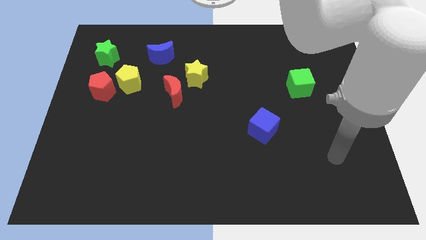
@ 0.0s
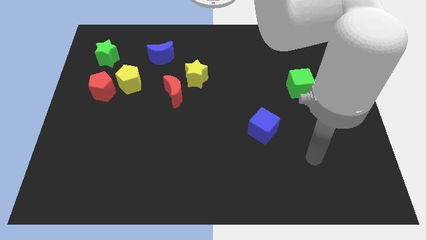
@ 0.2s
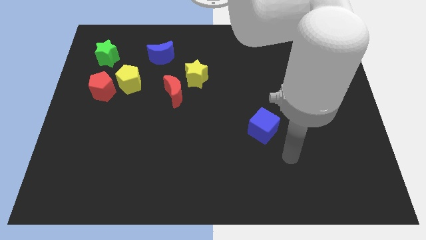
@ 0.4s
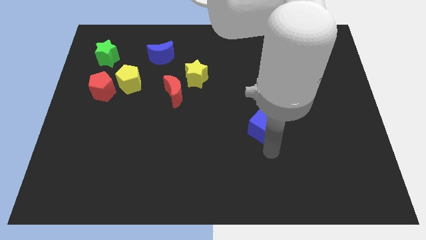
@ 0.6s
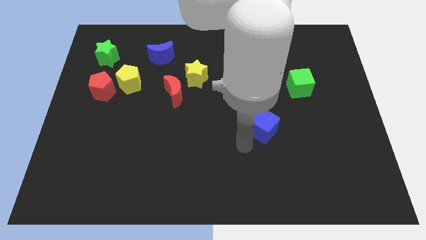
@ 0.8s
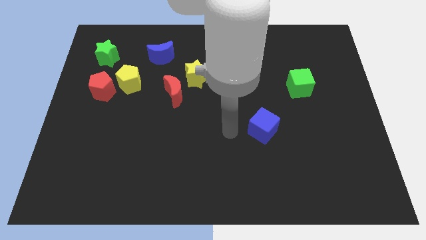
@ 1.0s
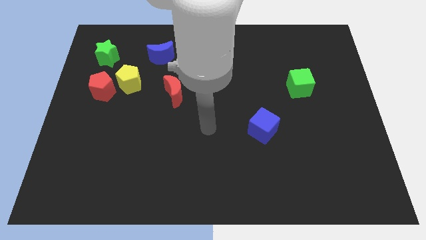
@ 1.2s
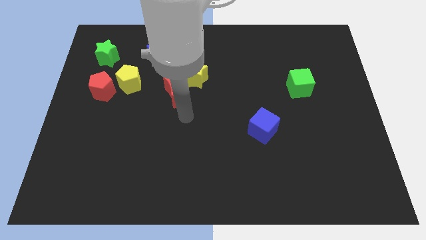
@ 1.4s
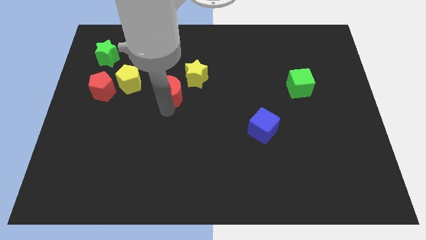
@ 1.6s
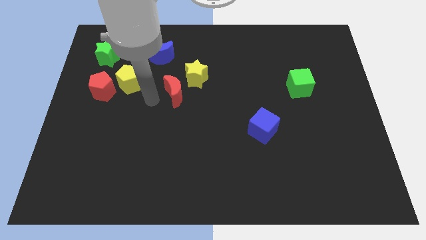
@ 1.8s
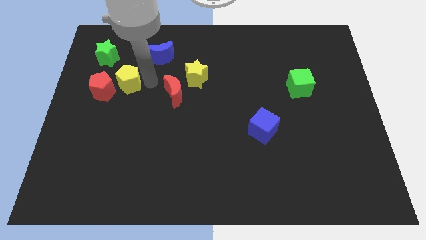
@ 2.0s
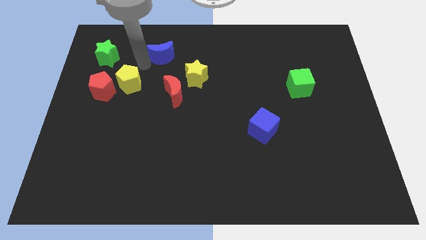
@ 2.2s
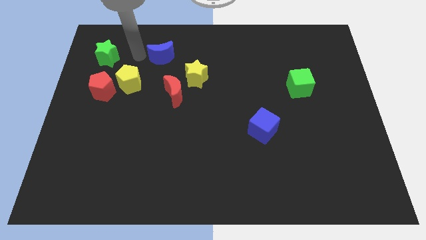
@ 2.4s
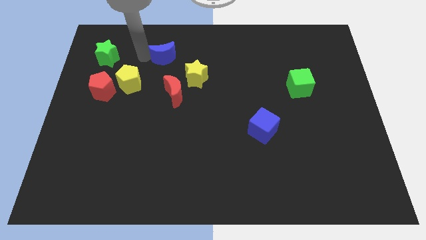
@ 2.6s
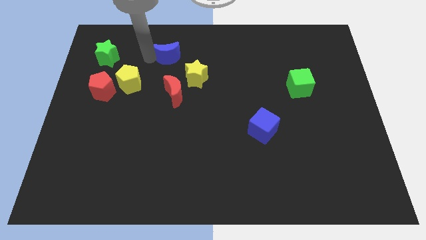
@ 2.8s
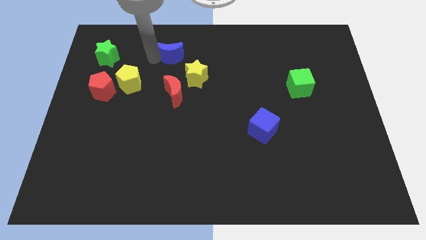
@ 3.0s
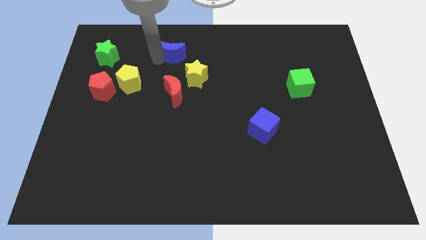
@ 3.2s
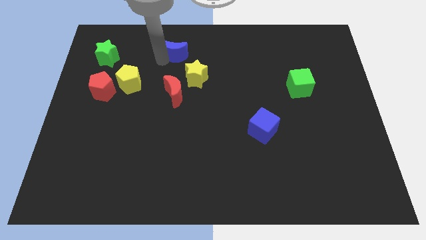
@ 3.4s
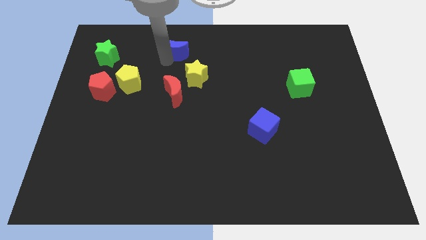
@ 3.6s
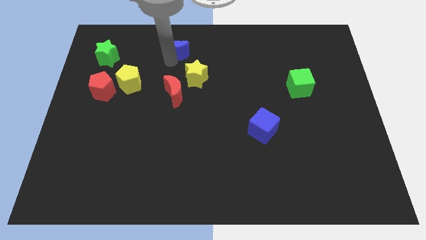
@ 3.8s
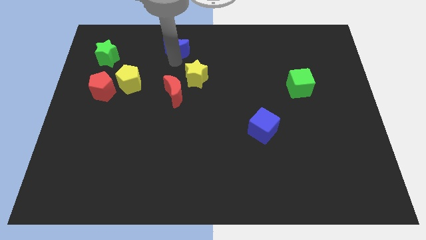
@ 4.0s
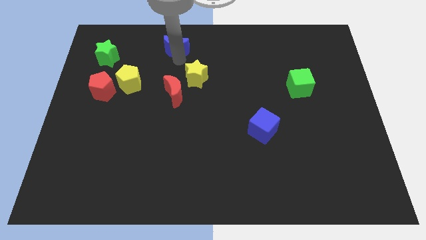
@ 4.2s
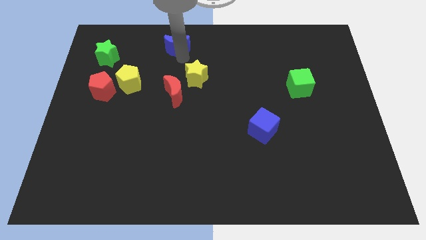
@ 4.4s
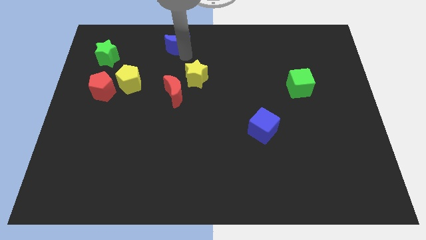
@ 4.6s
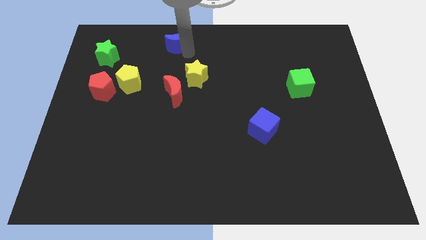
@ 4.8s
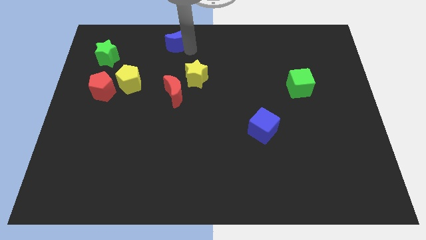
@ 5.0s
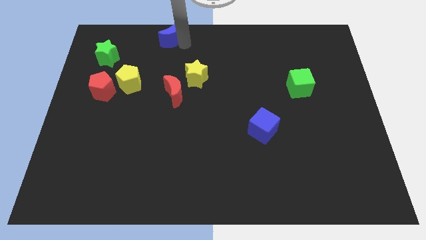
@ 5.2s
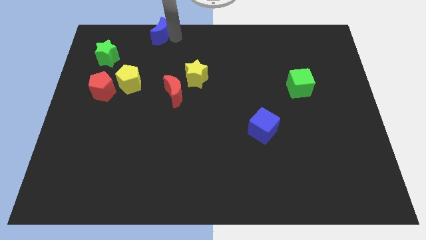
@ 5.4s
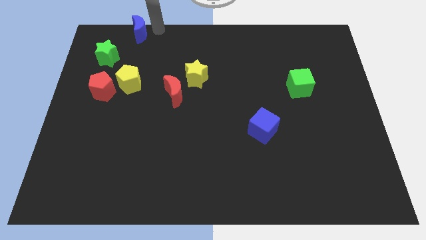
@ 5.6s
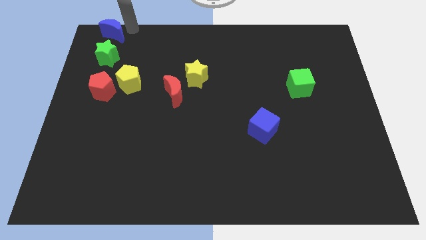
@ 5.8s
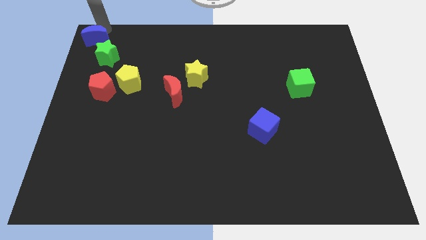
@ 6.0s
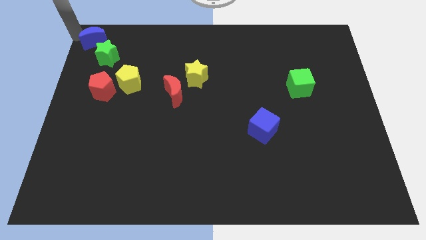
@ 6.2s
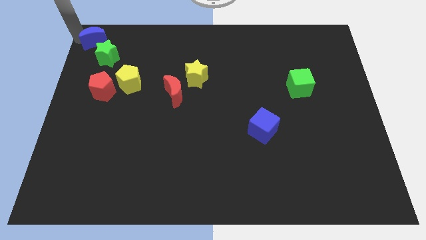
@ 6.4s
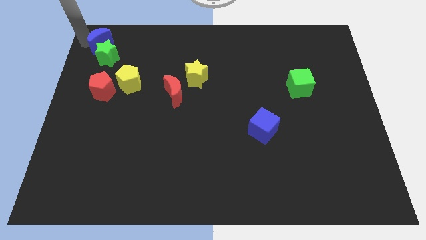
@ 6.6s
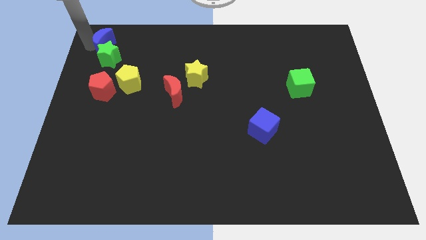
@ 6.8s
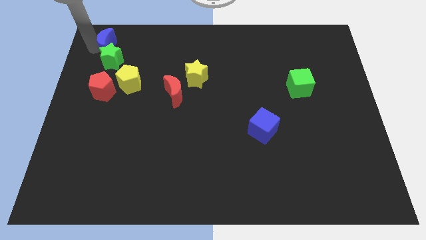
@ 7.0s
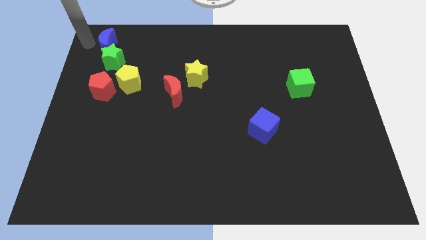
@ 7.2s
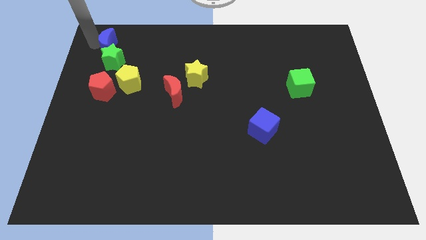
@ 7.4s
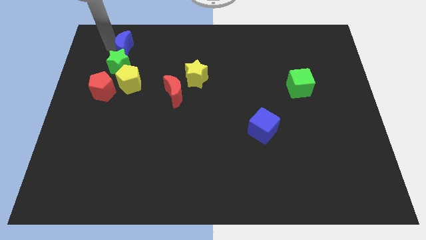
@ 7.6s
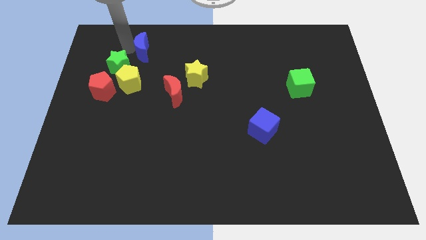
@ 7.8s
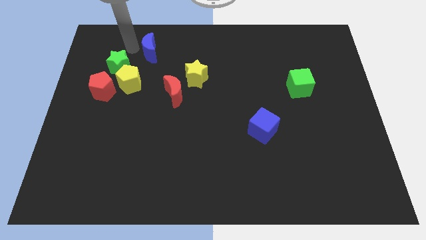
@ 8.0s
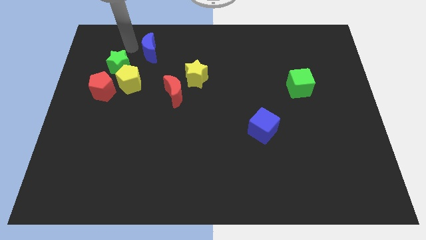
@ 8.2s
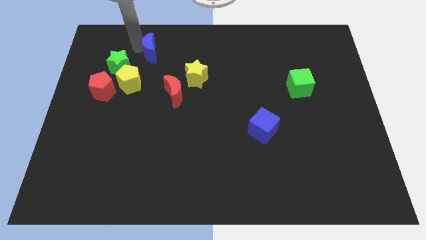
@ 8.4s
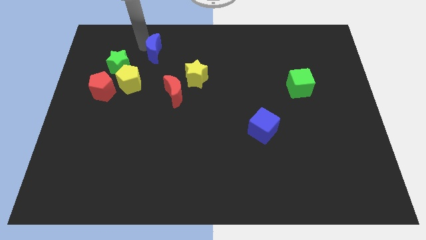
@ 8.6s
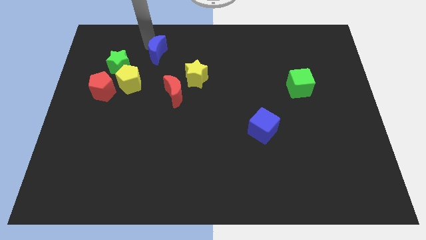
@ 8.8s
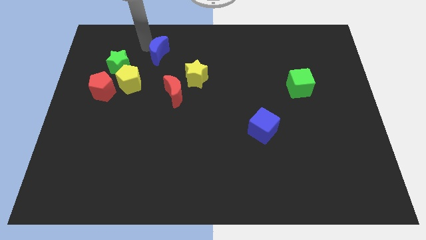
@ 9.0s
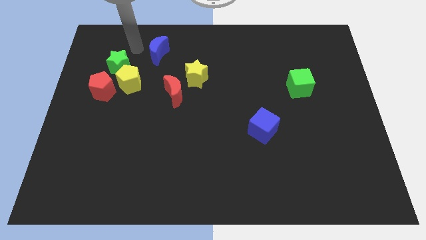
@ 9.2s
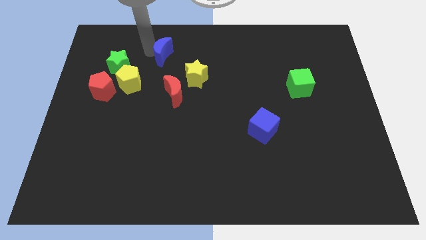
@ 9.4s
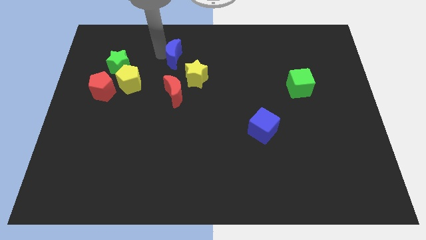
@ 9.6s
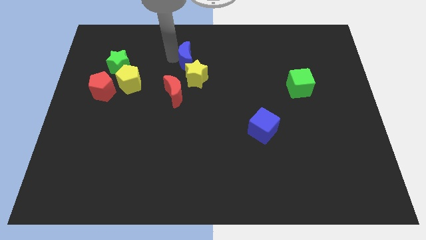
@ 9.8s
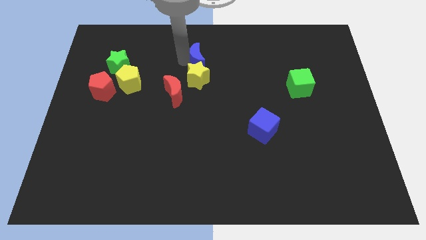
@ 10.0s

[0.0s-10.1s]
slightly move the blue moon diagonally down and right

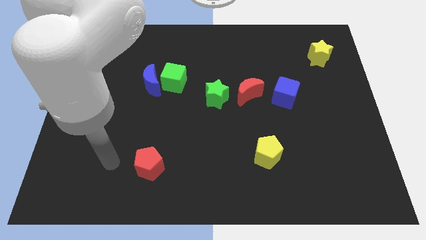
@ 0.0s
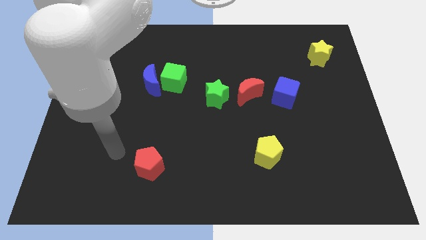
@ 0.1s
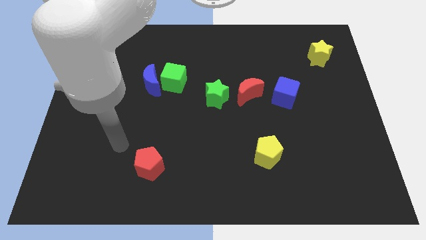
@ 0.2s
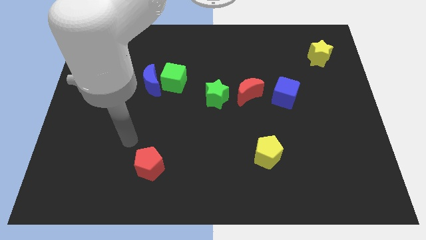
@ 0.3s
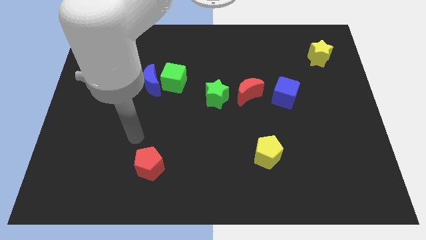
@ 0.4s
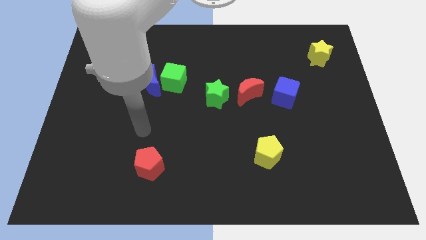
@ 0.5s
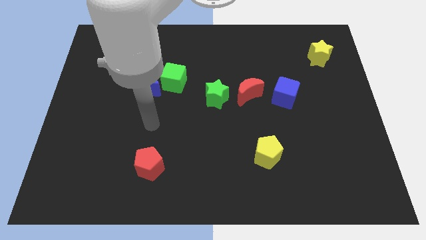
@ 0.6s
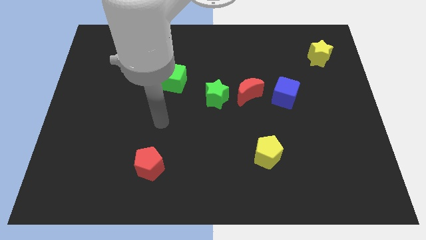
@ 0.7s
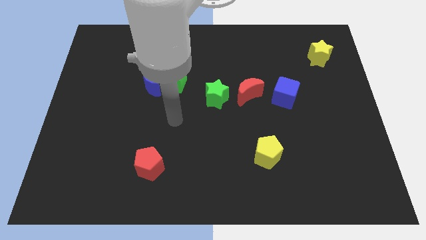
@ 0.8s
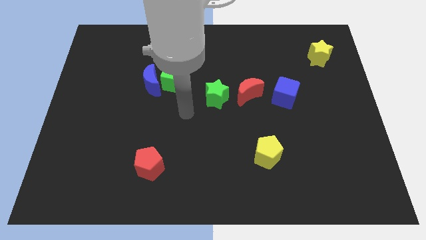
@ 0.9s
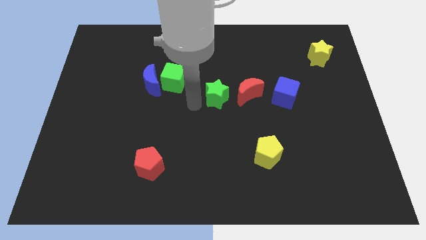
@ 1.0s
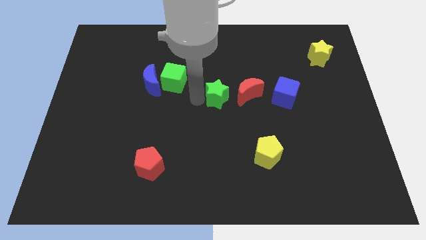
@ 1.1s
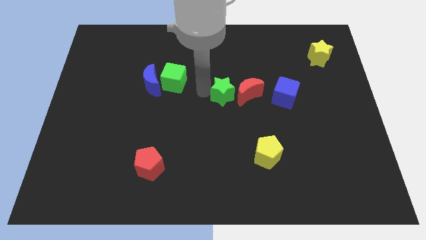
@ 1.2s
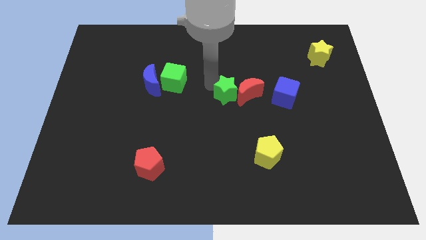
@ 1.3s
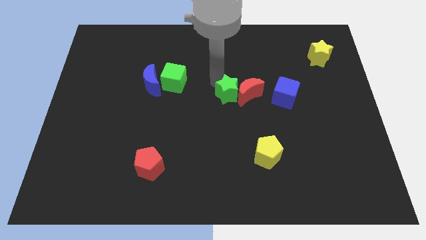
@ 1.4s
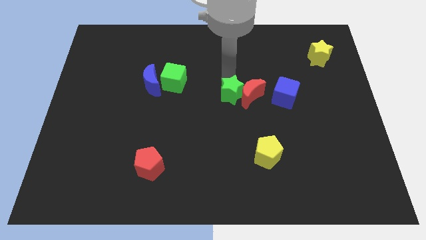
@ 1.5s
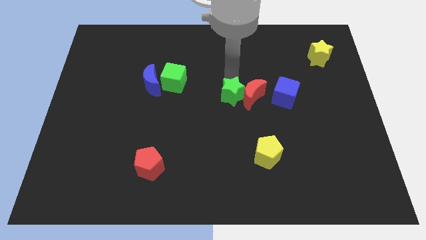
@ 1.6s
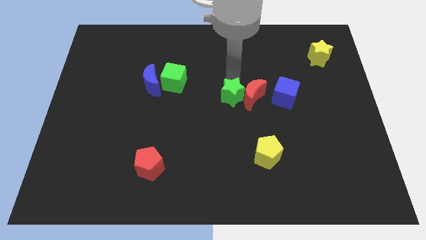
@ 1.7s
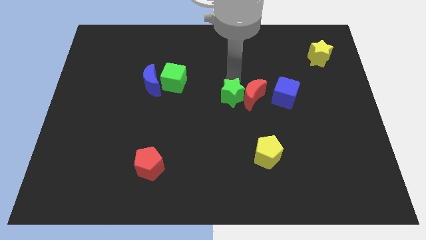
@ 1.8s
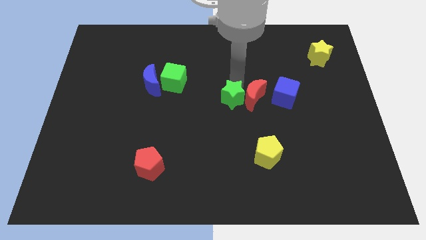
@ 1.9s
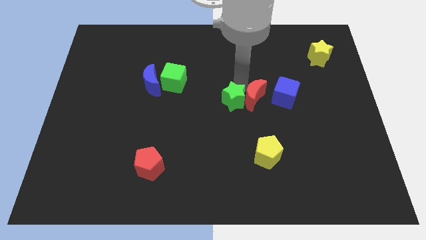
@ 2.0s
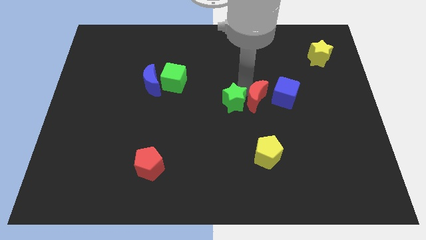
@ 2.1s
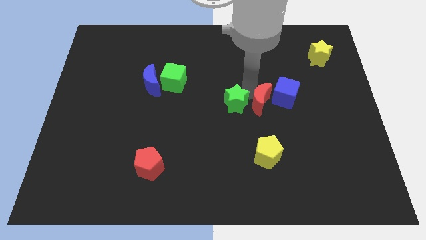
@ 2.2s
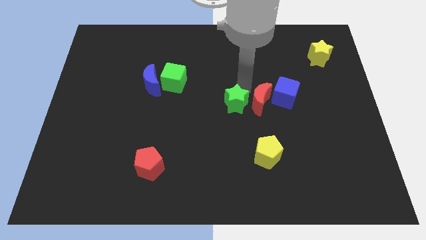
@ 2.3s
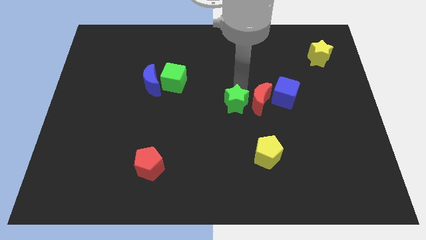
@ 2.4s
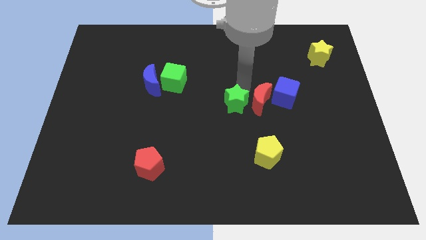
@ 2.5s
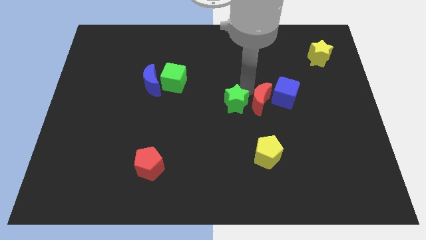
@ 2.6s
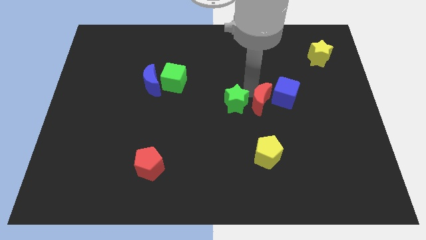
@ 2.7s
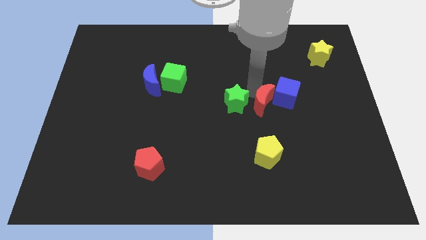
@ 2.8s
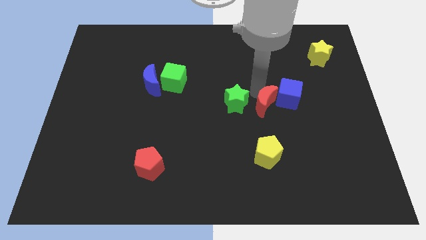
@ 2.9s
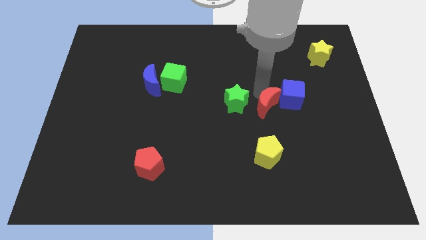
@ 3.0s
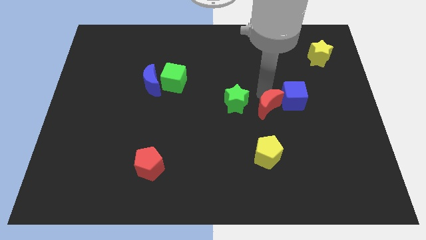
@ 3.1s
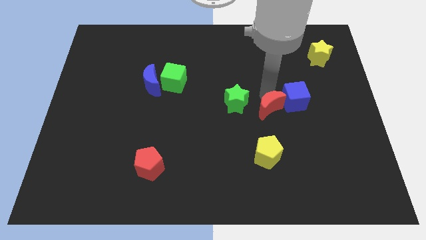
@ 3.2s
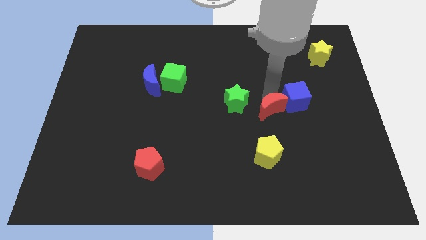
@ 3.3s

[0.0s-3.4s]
slightly move the red moon down and to the right diagonally
